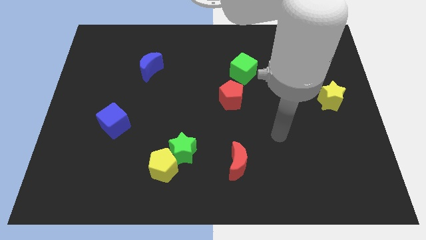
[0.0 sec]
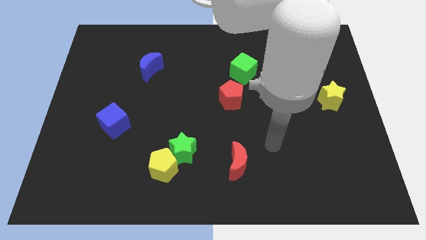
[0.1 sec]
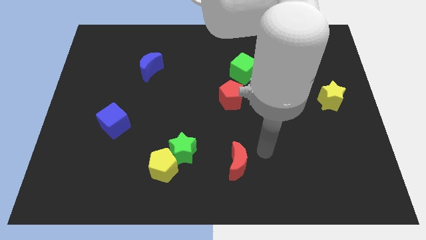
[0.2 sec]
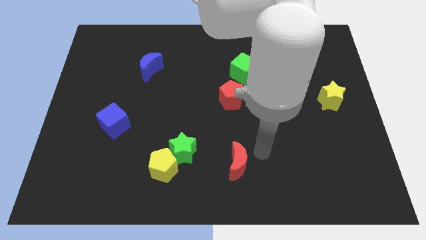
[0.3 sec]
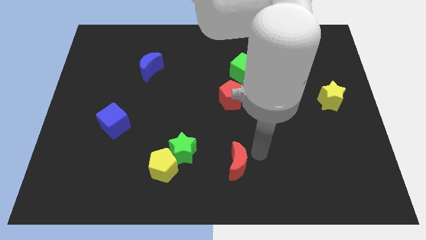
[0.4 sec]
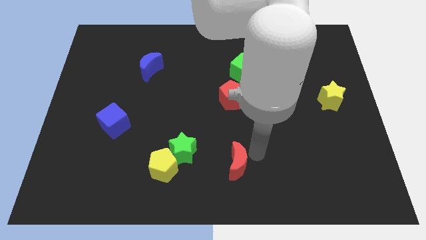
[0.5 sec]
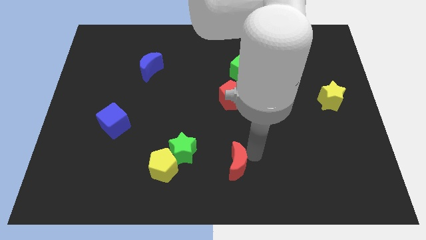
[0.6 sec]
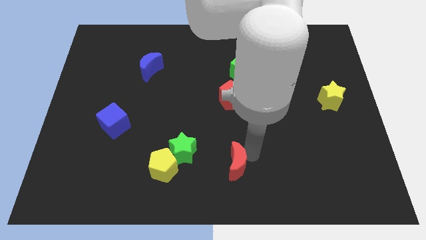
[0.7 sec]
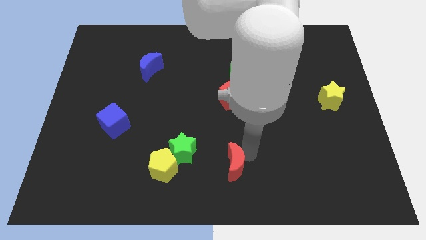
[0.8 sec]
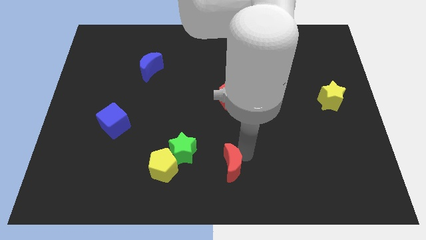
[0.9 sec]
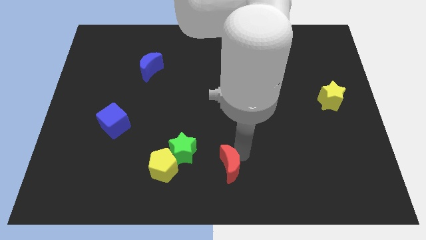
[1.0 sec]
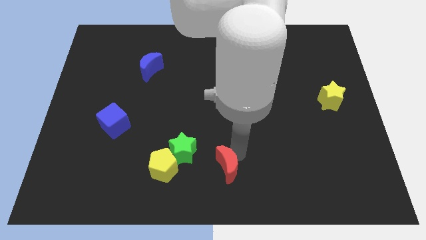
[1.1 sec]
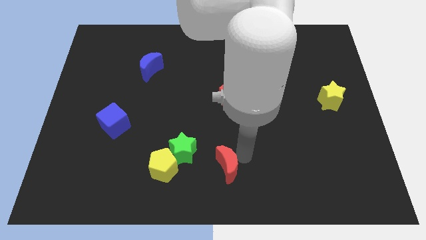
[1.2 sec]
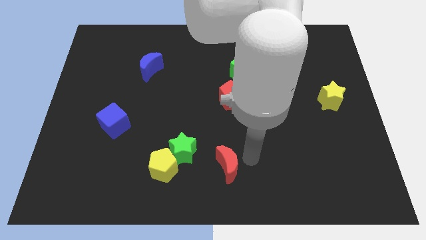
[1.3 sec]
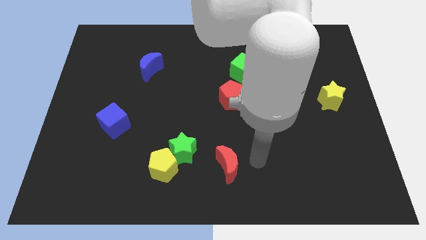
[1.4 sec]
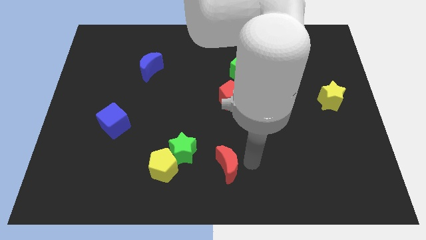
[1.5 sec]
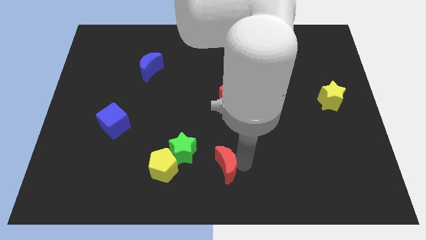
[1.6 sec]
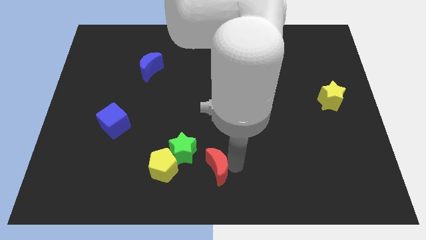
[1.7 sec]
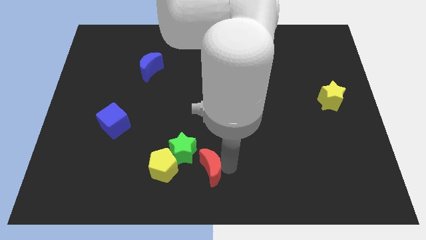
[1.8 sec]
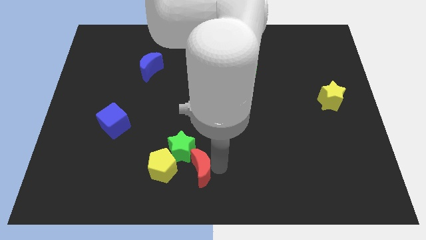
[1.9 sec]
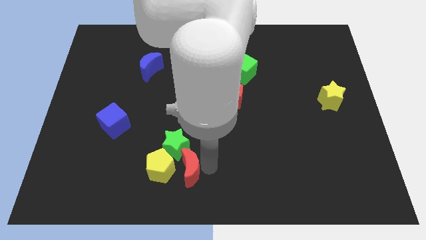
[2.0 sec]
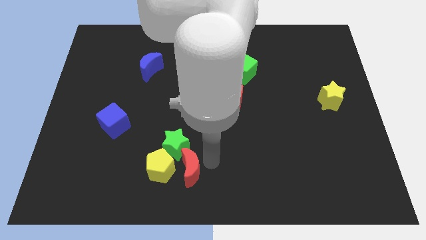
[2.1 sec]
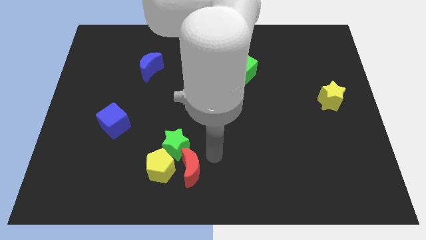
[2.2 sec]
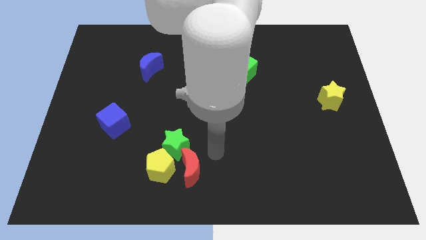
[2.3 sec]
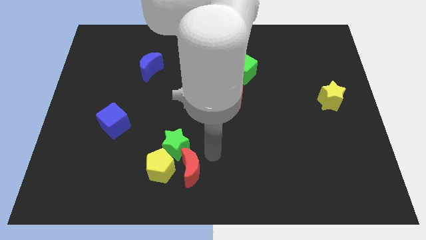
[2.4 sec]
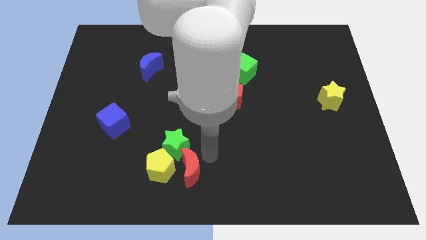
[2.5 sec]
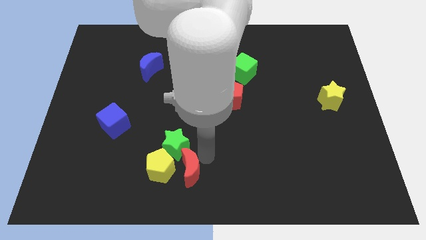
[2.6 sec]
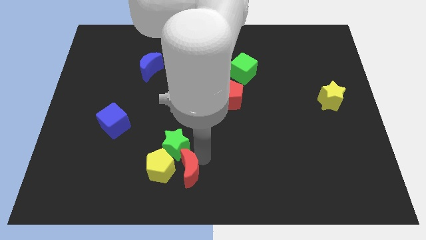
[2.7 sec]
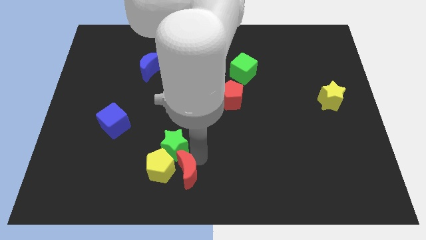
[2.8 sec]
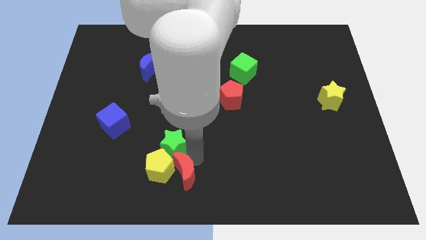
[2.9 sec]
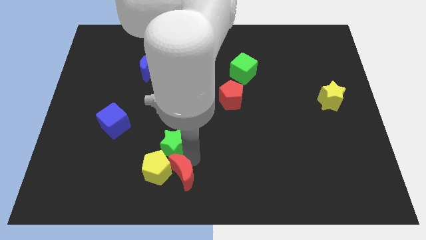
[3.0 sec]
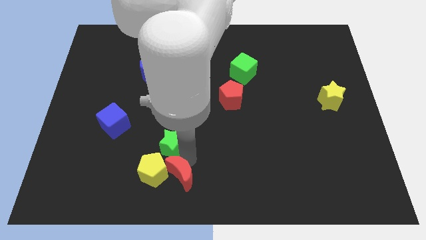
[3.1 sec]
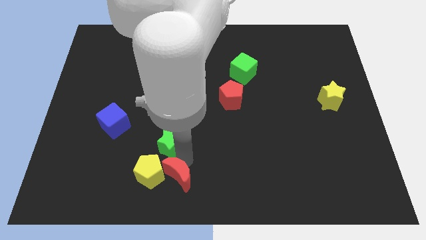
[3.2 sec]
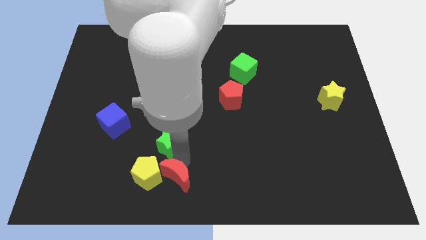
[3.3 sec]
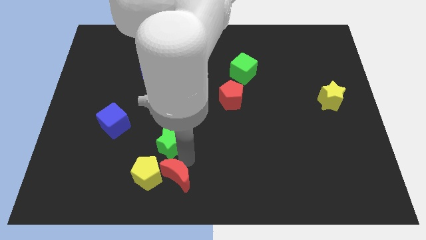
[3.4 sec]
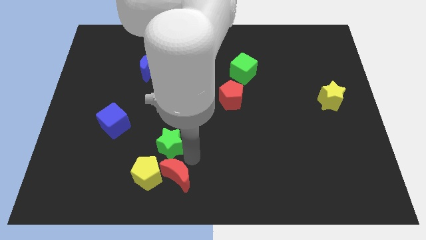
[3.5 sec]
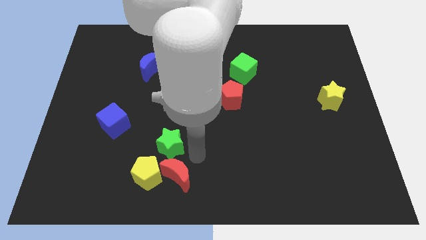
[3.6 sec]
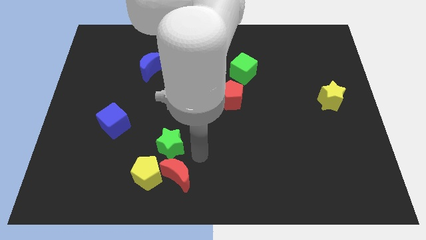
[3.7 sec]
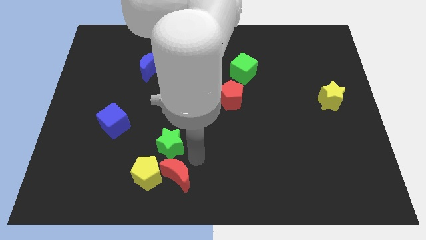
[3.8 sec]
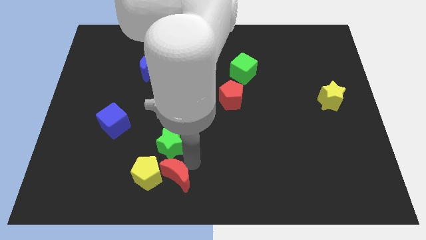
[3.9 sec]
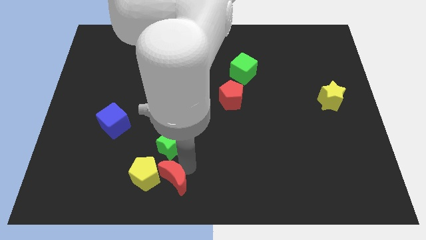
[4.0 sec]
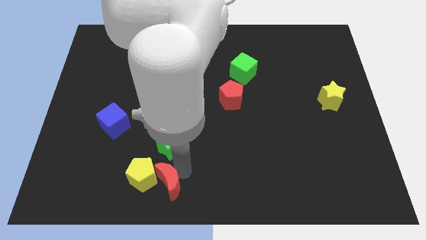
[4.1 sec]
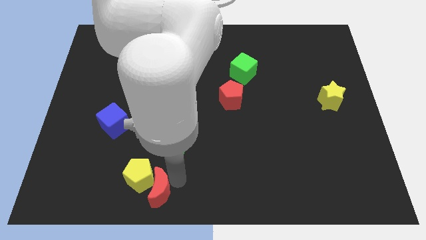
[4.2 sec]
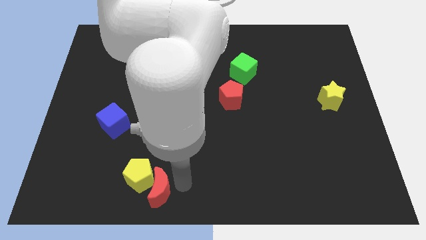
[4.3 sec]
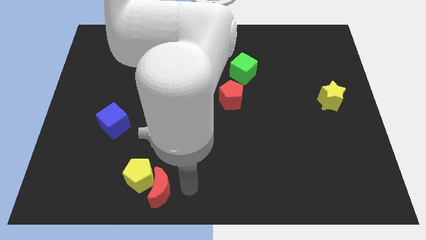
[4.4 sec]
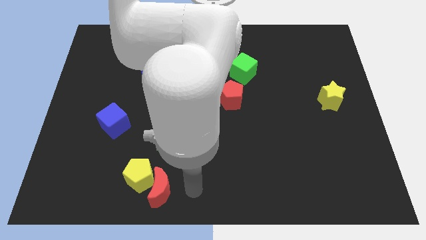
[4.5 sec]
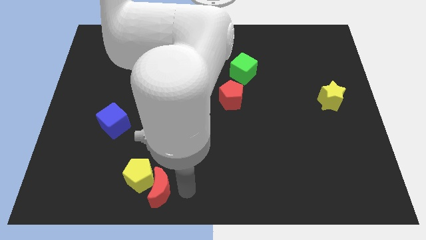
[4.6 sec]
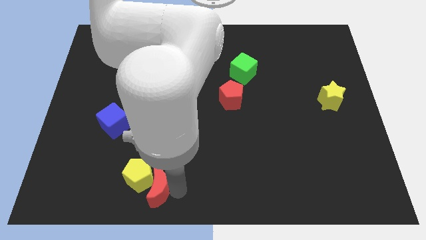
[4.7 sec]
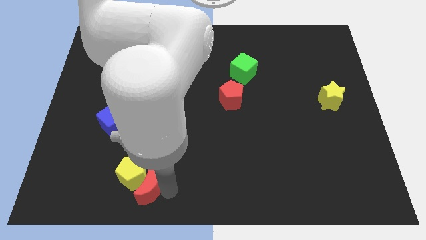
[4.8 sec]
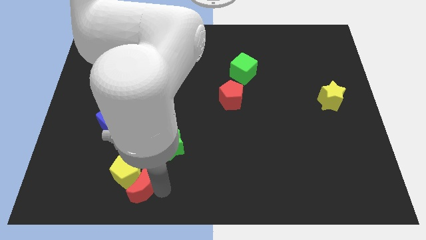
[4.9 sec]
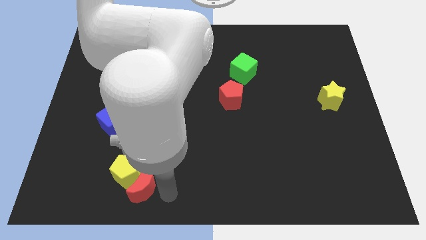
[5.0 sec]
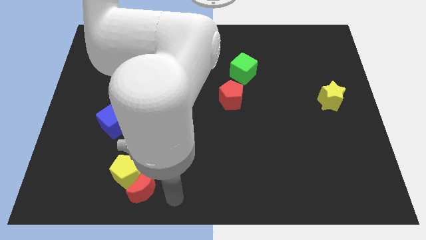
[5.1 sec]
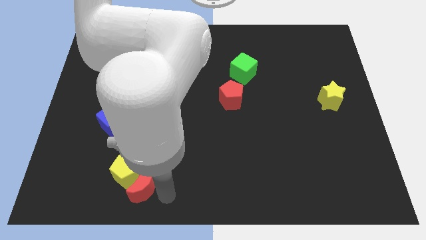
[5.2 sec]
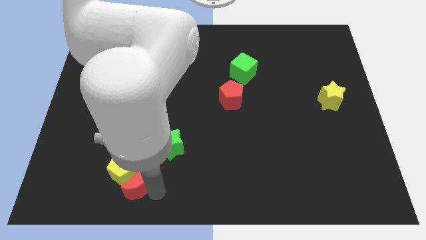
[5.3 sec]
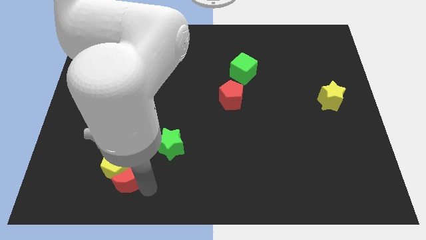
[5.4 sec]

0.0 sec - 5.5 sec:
push the red moon left

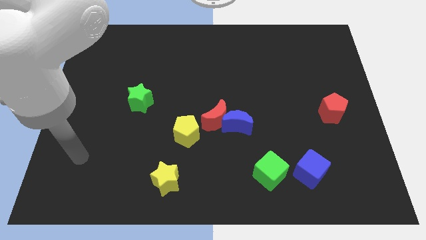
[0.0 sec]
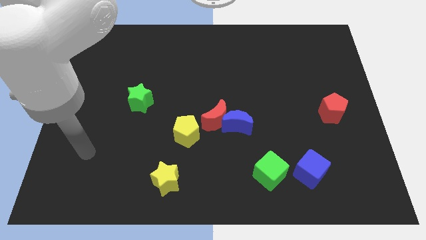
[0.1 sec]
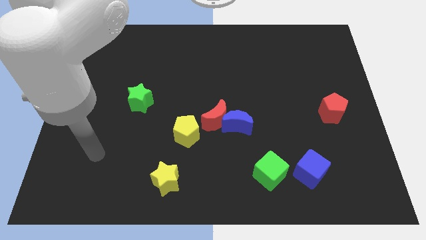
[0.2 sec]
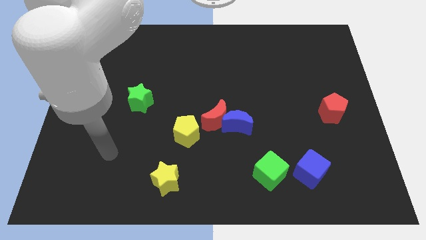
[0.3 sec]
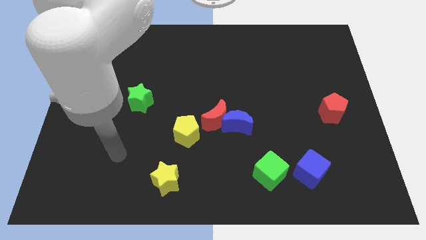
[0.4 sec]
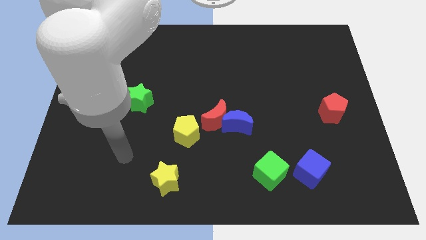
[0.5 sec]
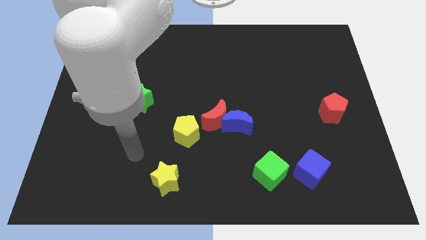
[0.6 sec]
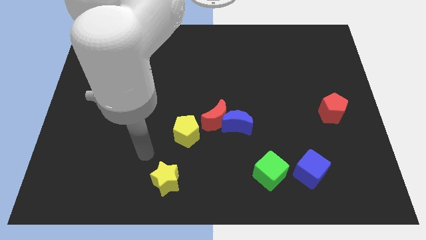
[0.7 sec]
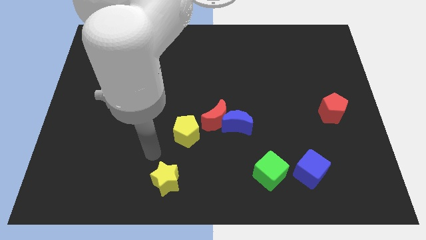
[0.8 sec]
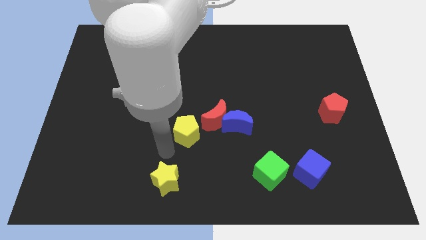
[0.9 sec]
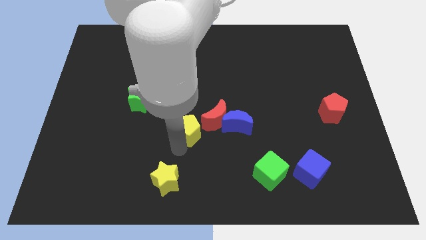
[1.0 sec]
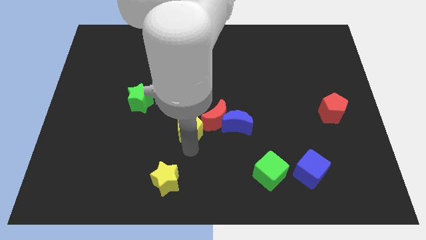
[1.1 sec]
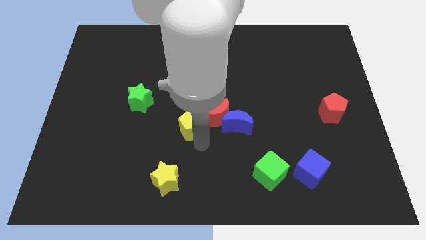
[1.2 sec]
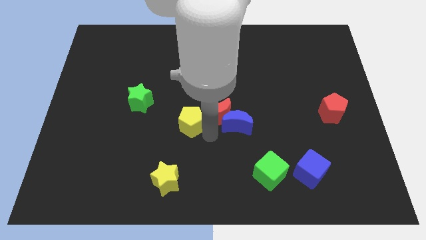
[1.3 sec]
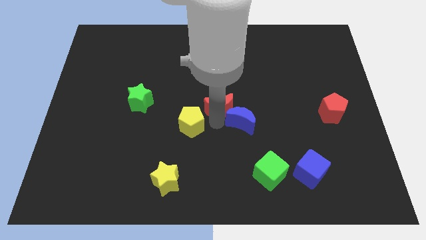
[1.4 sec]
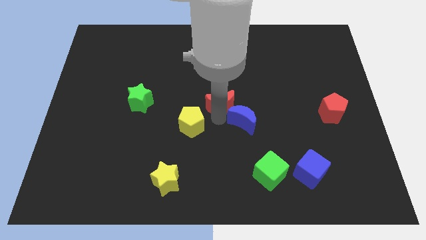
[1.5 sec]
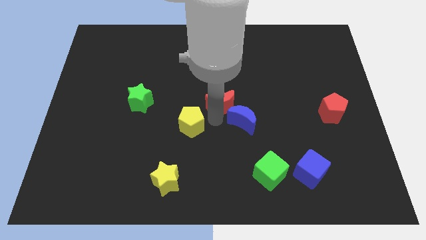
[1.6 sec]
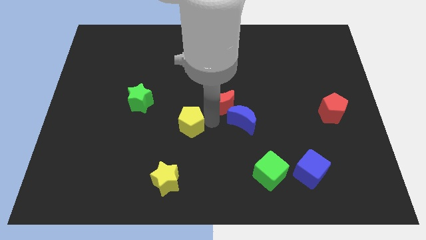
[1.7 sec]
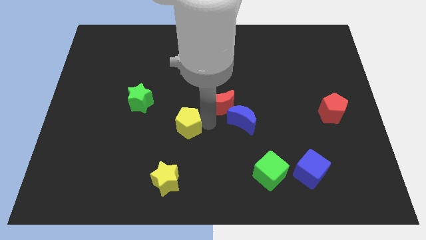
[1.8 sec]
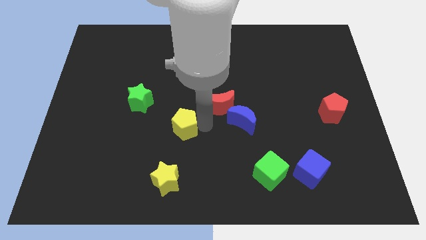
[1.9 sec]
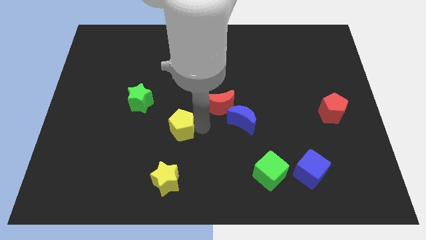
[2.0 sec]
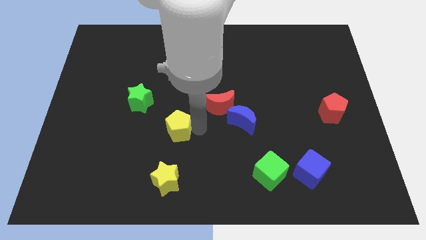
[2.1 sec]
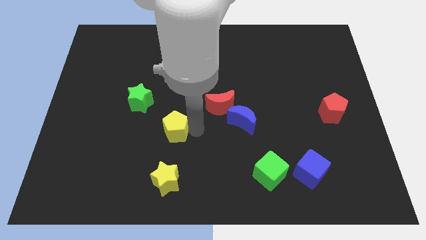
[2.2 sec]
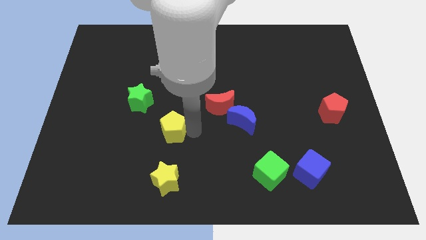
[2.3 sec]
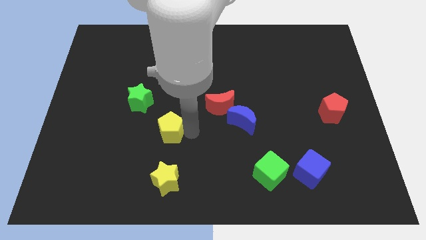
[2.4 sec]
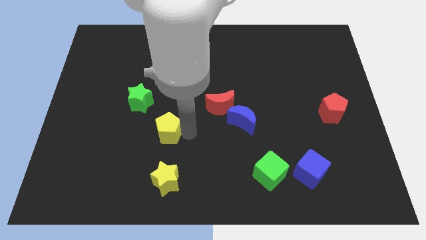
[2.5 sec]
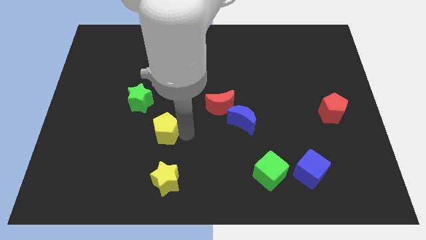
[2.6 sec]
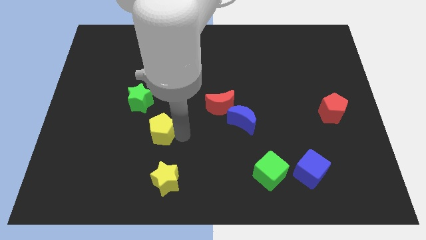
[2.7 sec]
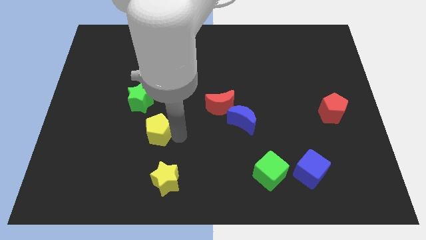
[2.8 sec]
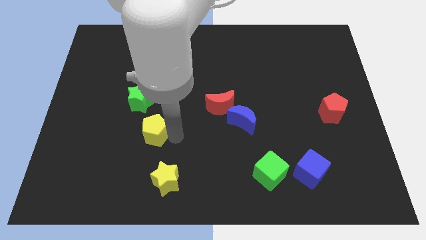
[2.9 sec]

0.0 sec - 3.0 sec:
slightly push the yellow pentagon to the left
